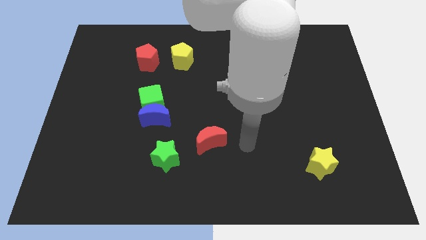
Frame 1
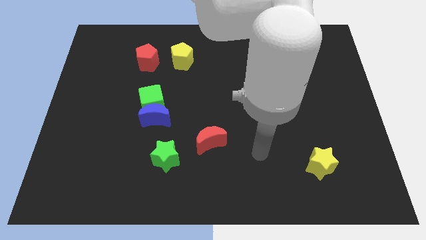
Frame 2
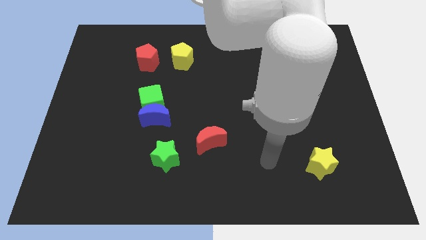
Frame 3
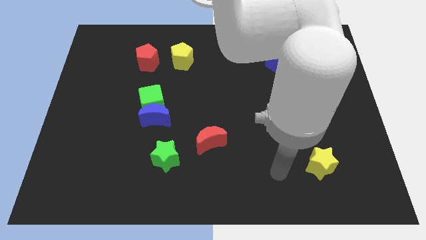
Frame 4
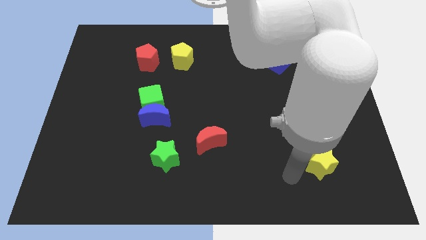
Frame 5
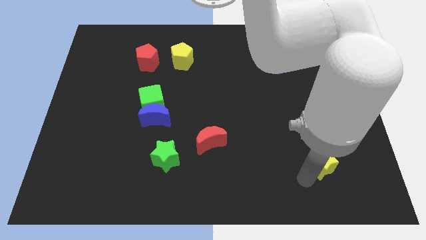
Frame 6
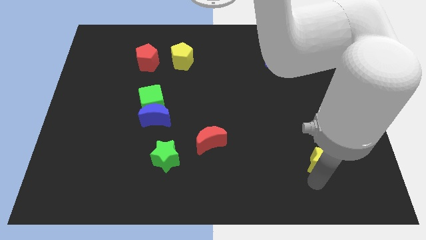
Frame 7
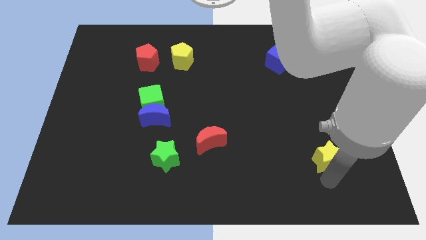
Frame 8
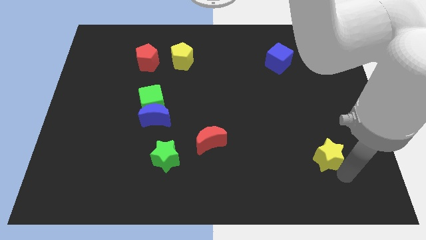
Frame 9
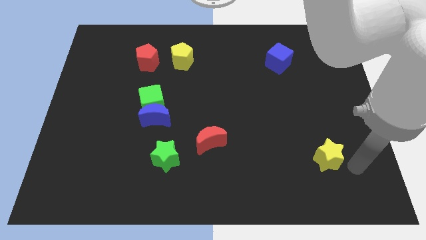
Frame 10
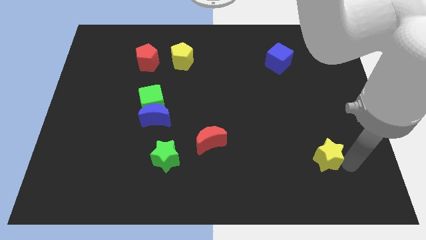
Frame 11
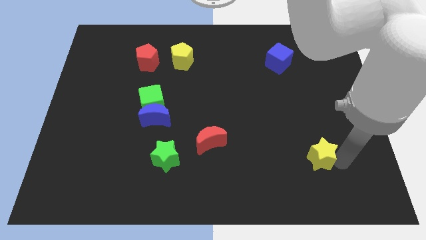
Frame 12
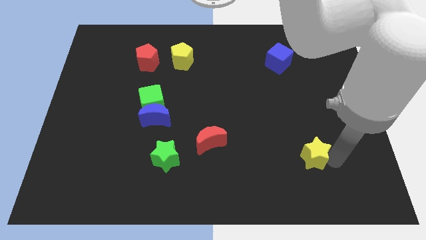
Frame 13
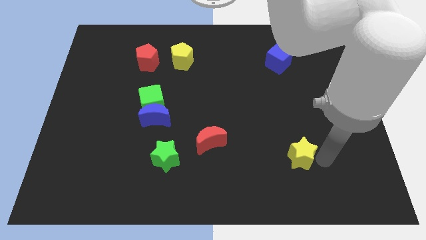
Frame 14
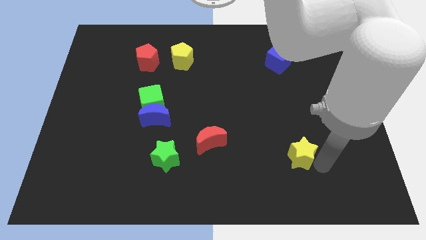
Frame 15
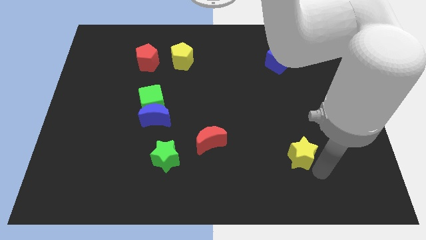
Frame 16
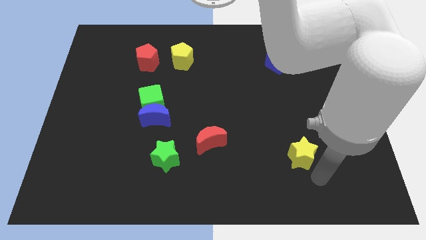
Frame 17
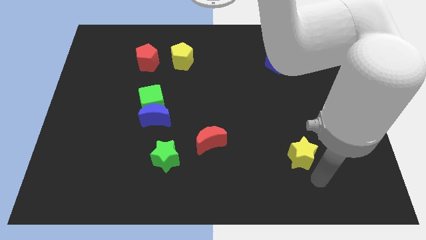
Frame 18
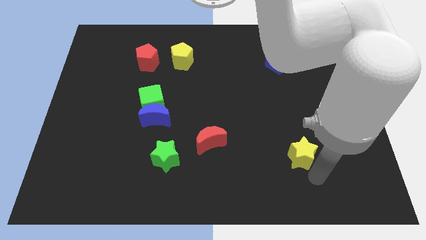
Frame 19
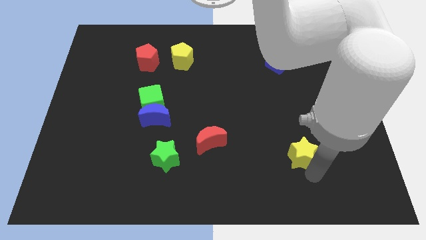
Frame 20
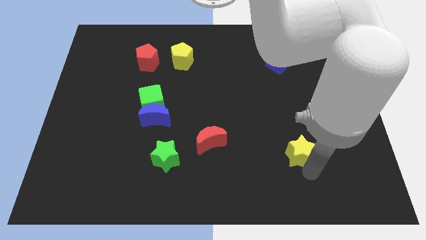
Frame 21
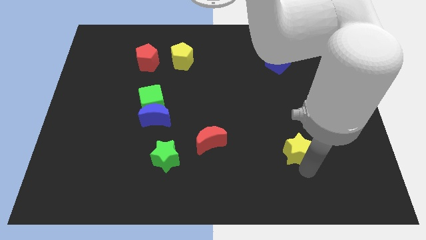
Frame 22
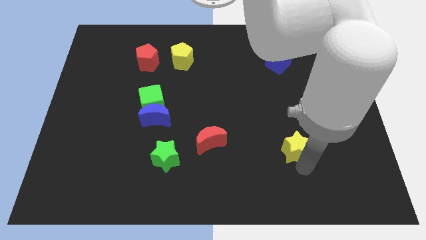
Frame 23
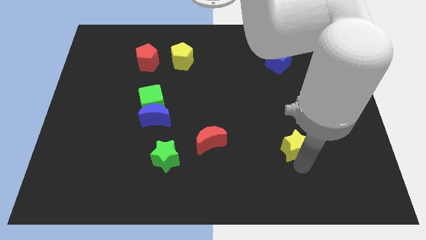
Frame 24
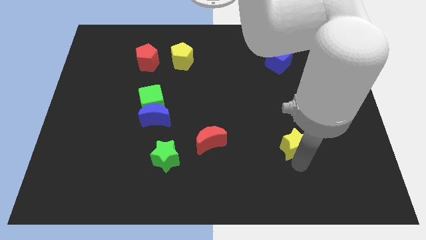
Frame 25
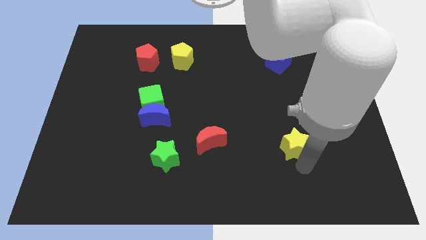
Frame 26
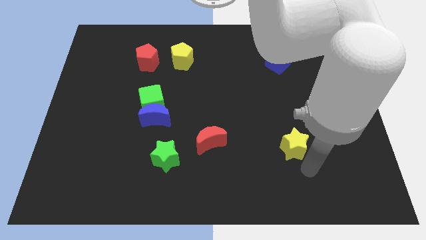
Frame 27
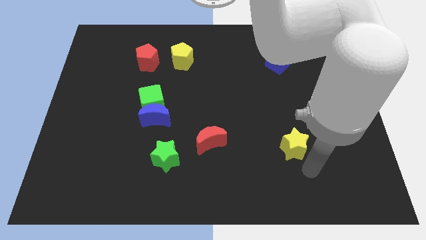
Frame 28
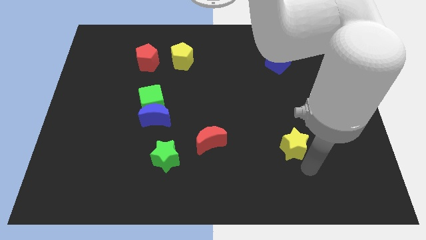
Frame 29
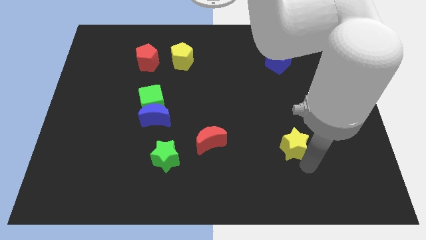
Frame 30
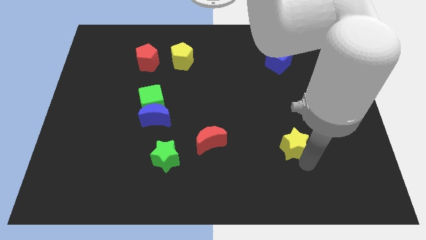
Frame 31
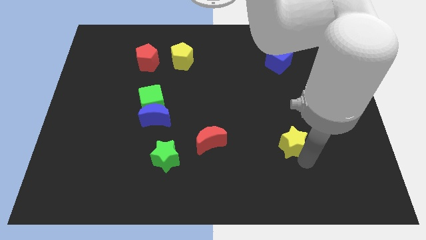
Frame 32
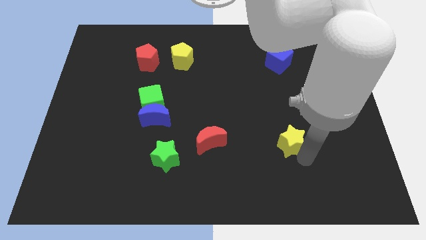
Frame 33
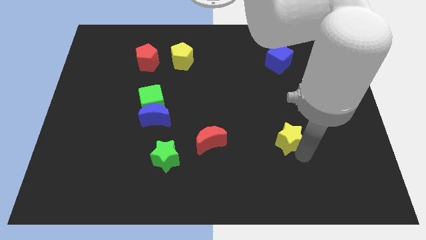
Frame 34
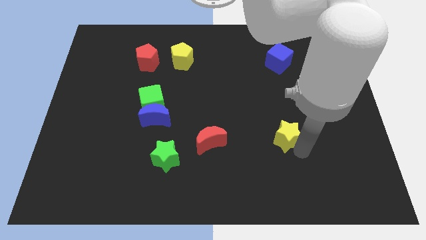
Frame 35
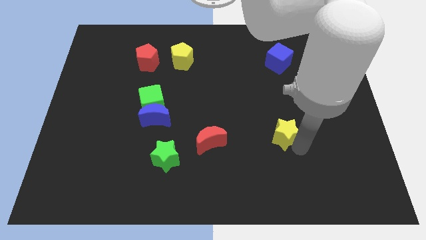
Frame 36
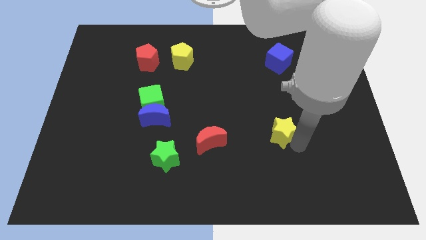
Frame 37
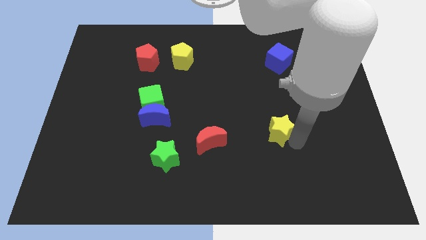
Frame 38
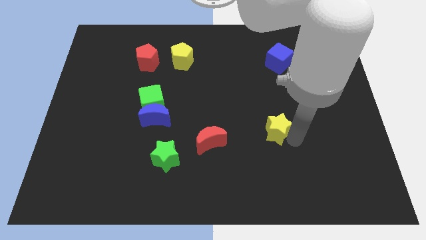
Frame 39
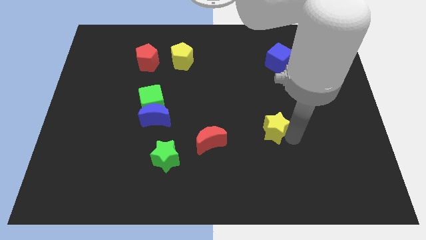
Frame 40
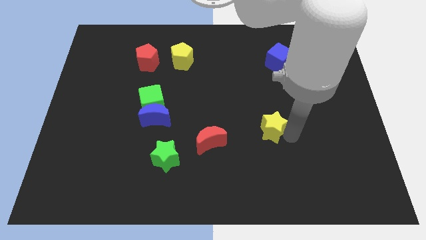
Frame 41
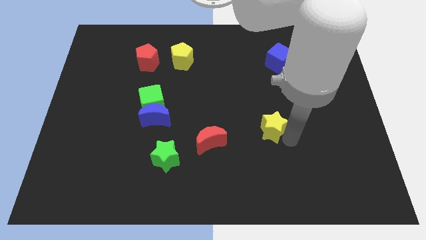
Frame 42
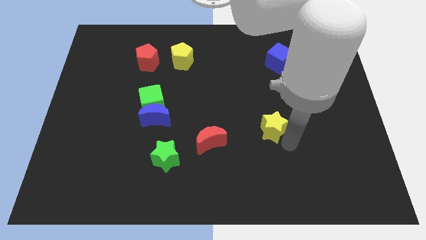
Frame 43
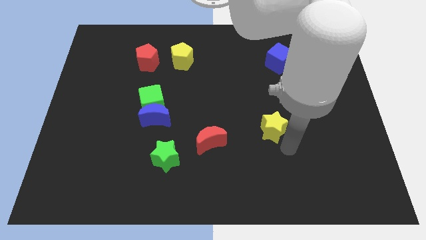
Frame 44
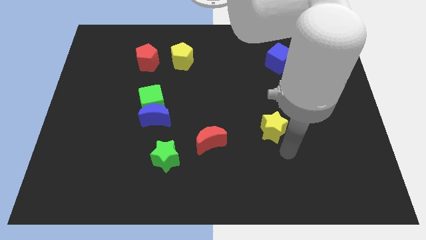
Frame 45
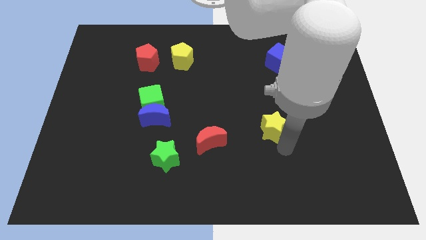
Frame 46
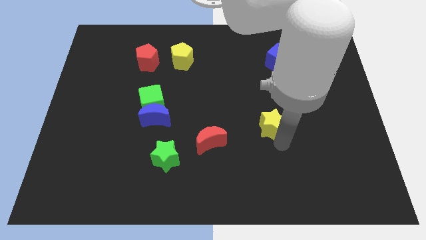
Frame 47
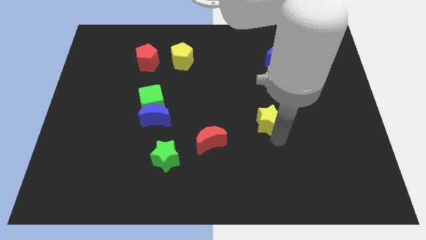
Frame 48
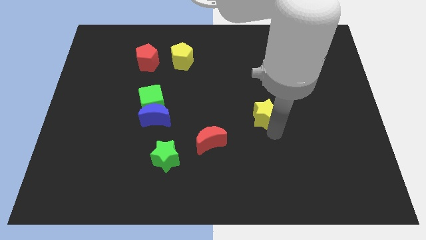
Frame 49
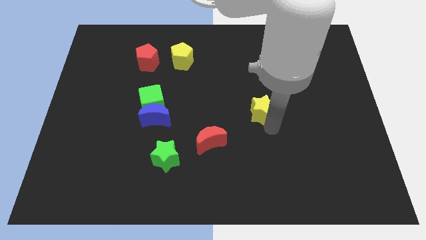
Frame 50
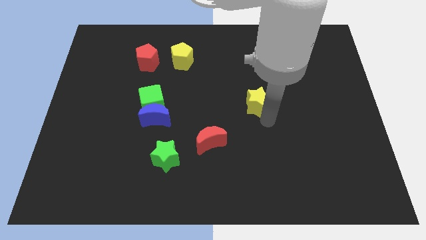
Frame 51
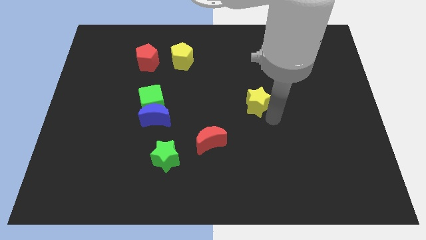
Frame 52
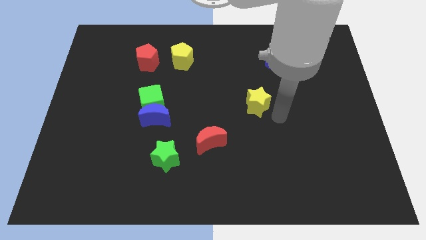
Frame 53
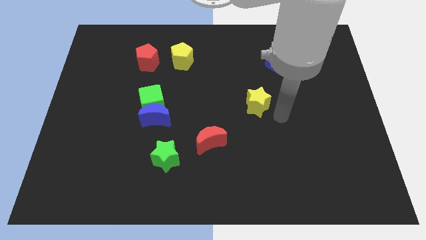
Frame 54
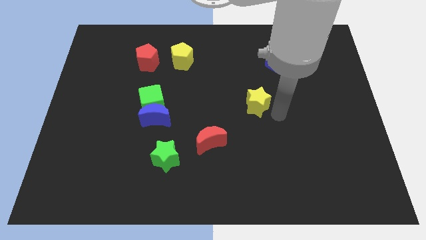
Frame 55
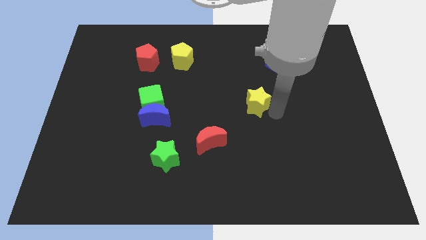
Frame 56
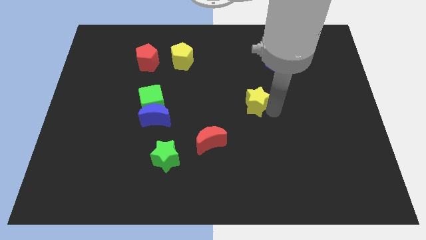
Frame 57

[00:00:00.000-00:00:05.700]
slide the yellow star upwards and left diagonally

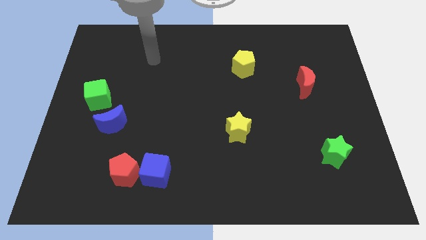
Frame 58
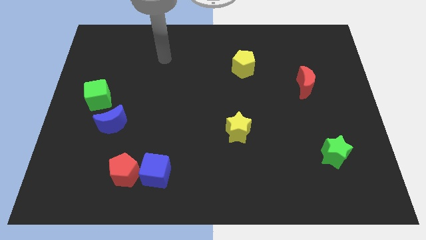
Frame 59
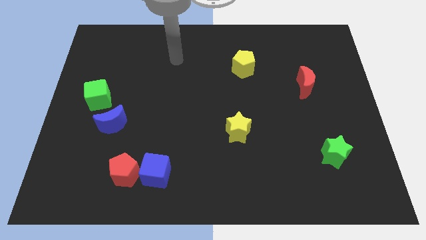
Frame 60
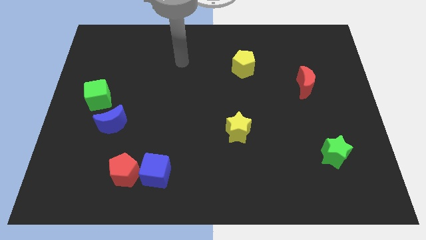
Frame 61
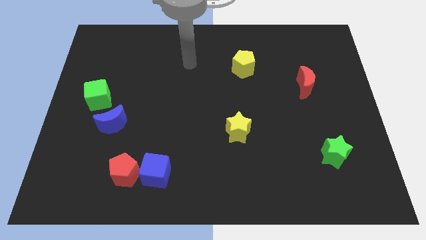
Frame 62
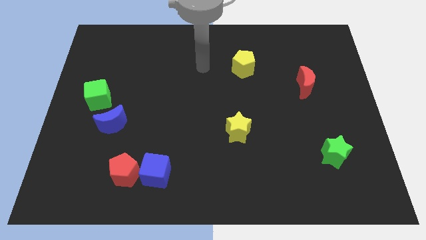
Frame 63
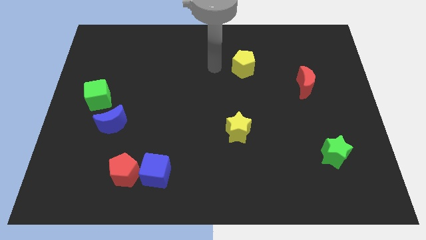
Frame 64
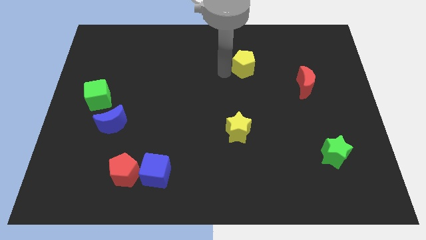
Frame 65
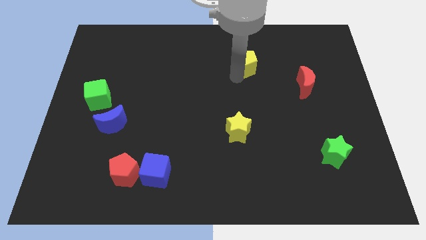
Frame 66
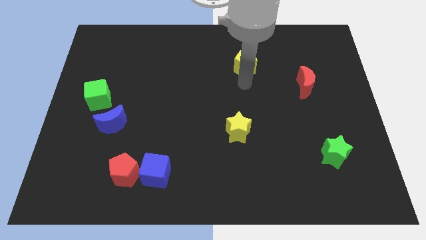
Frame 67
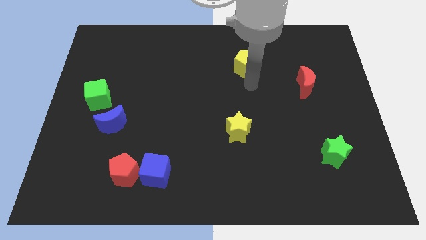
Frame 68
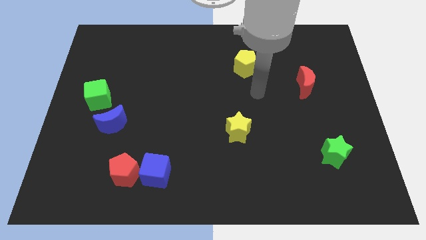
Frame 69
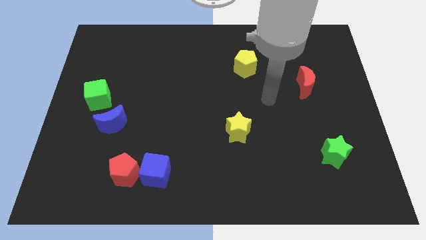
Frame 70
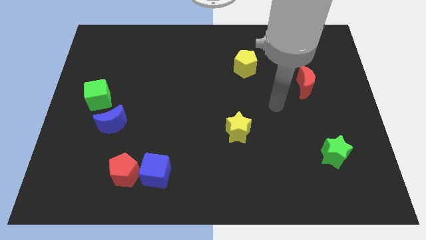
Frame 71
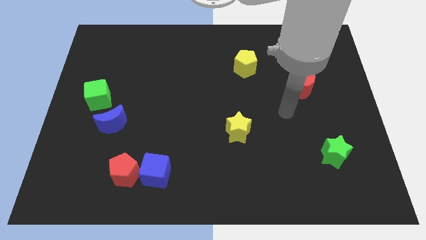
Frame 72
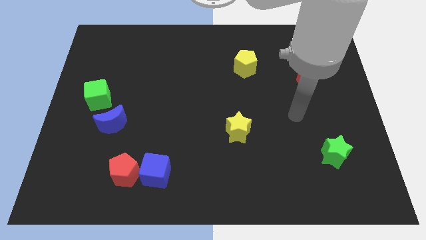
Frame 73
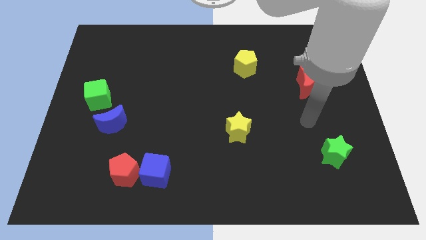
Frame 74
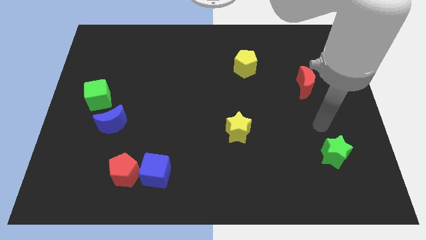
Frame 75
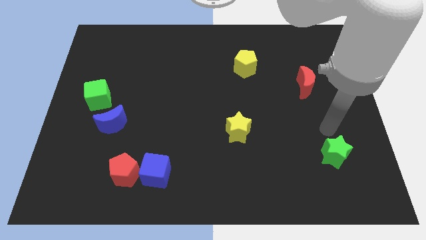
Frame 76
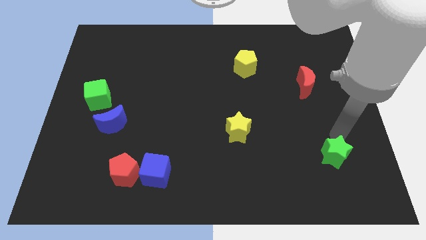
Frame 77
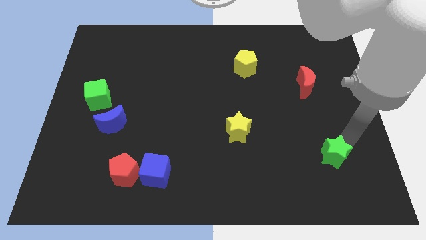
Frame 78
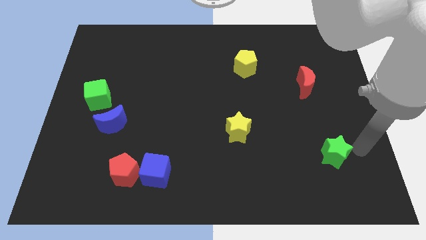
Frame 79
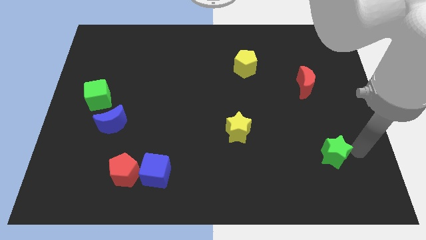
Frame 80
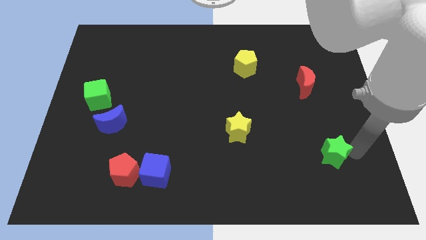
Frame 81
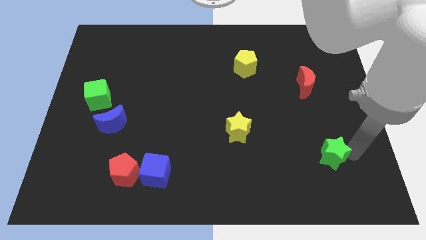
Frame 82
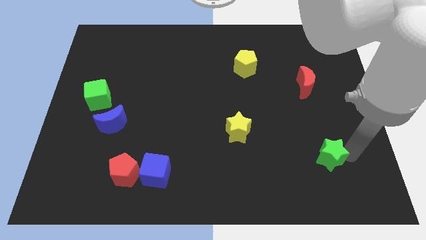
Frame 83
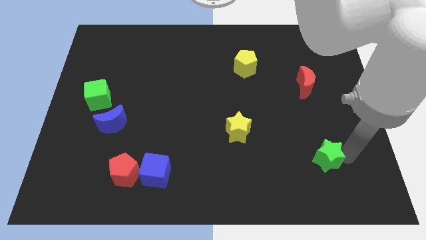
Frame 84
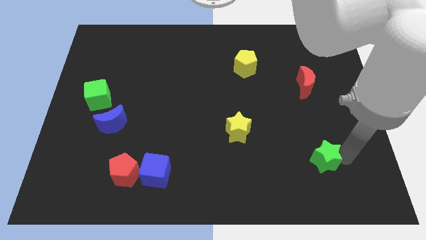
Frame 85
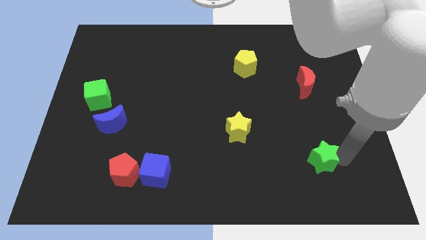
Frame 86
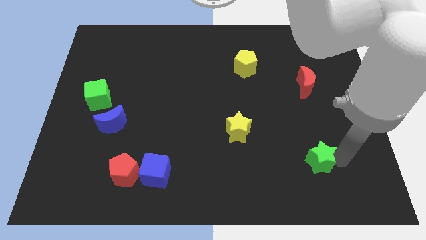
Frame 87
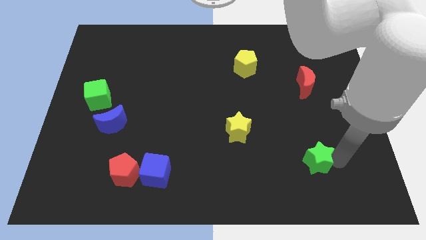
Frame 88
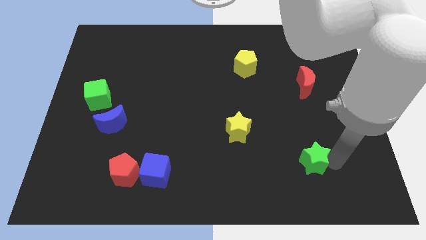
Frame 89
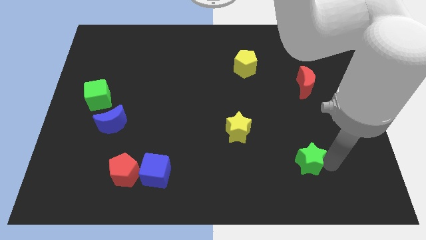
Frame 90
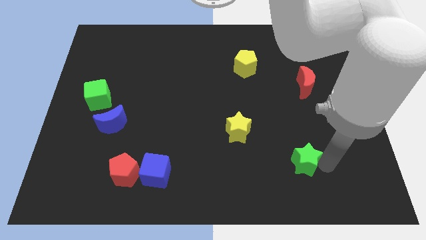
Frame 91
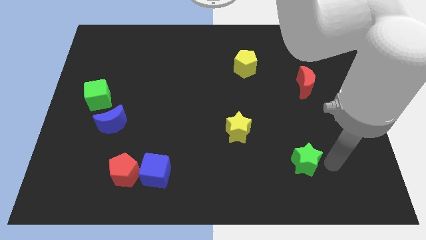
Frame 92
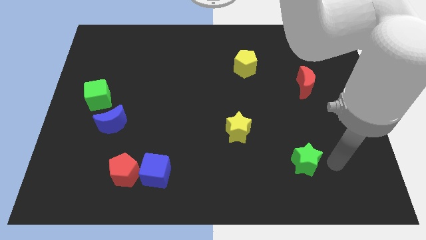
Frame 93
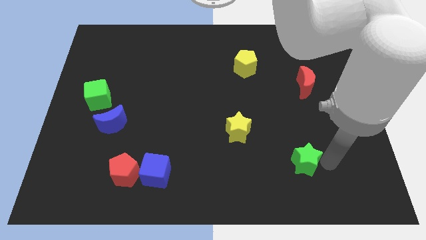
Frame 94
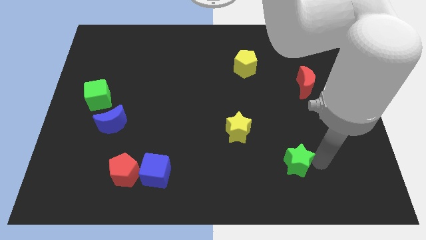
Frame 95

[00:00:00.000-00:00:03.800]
slide the green star a bit to the left
